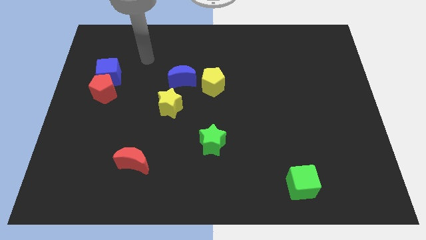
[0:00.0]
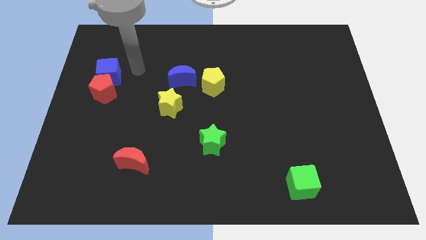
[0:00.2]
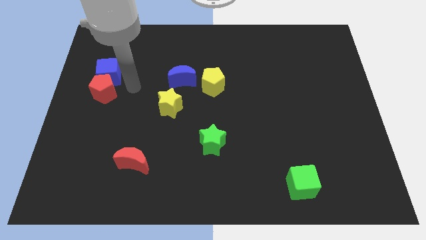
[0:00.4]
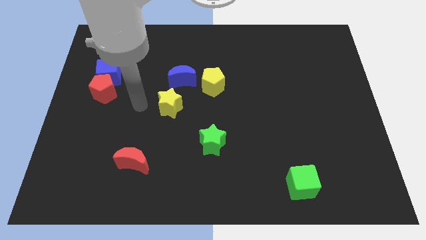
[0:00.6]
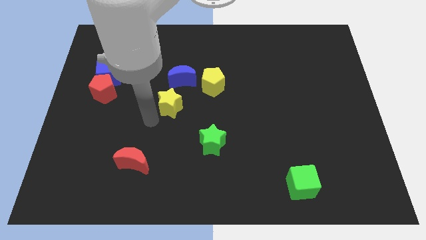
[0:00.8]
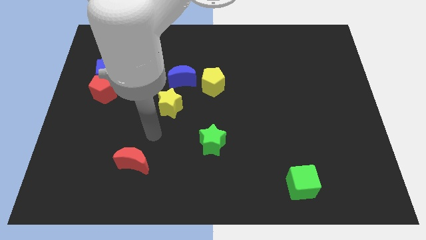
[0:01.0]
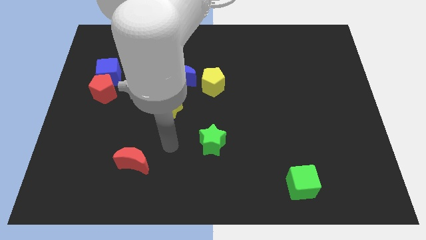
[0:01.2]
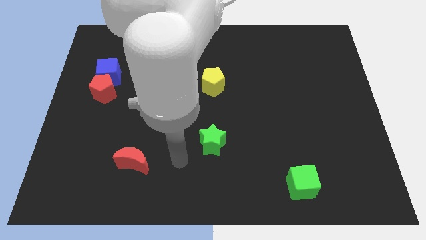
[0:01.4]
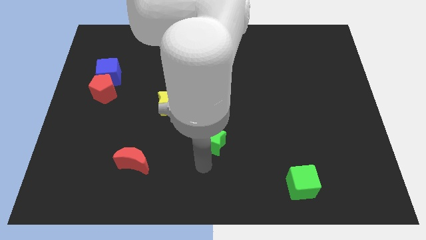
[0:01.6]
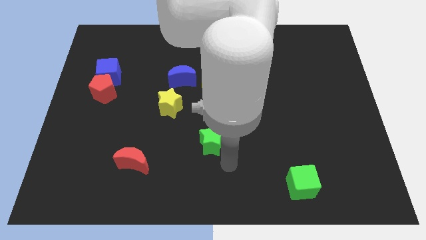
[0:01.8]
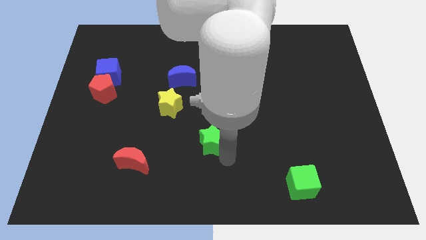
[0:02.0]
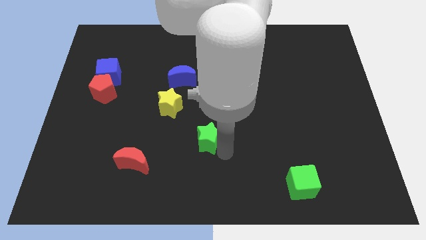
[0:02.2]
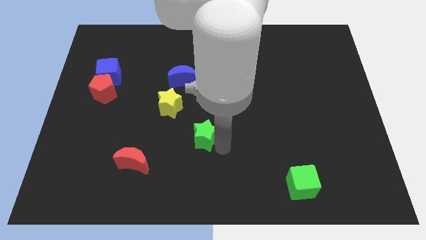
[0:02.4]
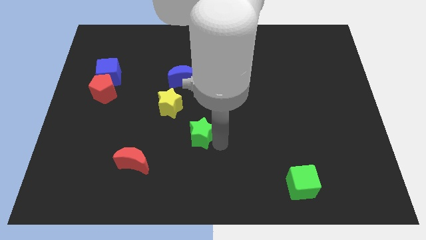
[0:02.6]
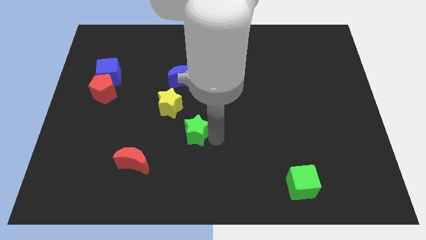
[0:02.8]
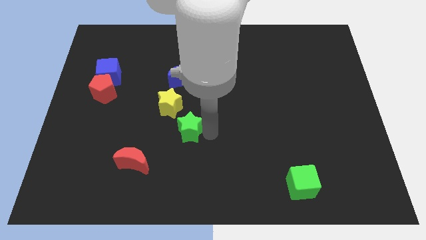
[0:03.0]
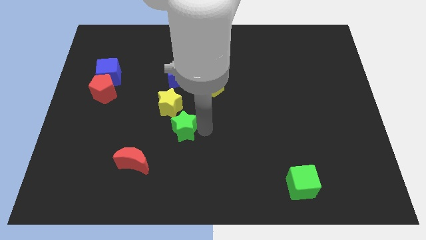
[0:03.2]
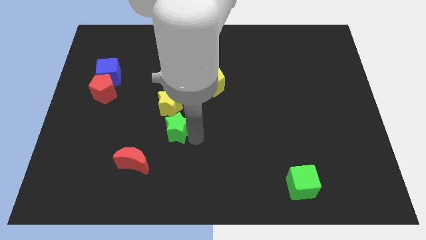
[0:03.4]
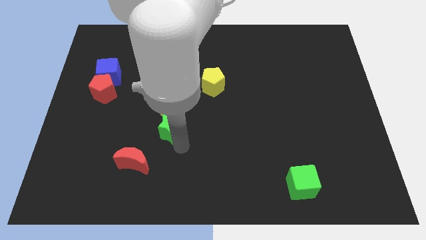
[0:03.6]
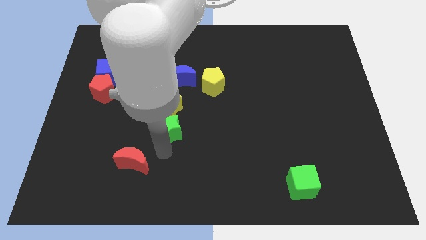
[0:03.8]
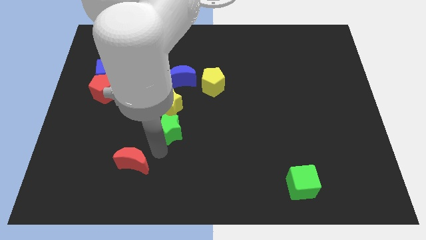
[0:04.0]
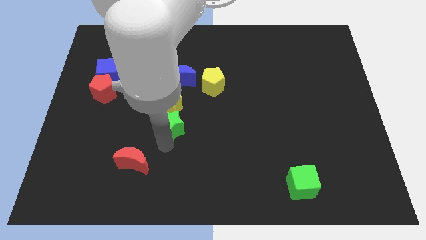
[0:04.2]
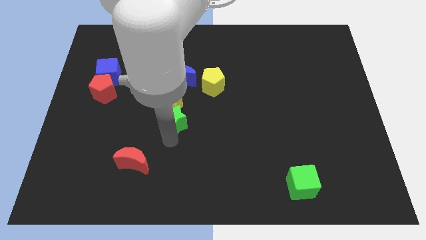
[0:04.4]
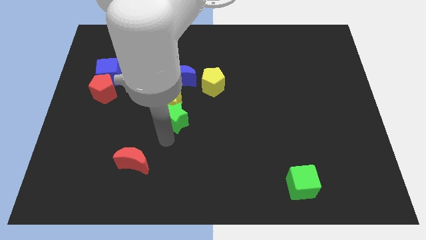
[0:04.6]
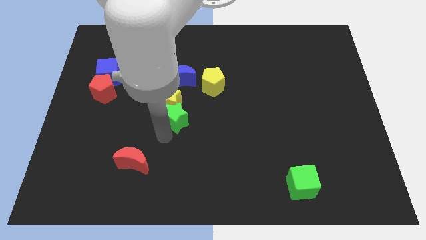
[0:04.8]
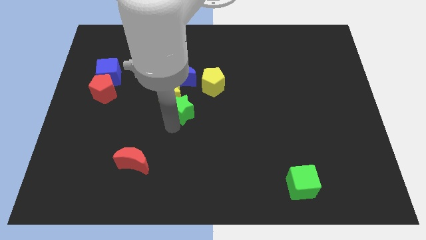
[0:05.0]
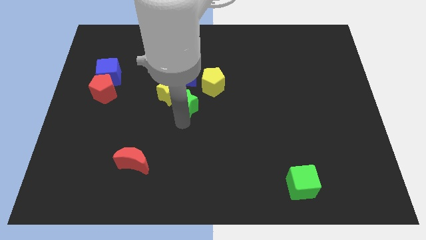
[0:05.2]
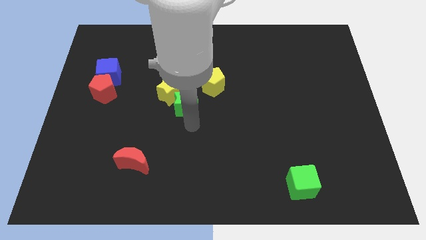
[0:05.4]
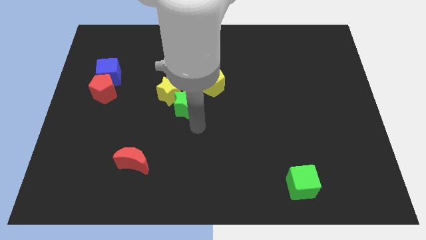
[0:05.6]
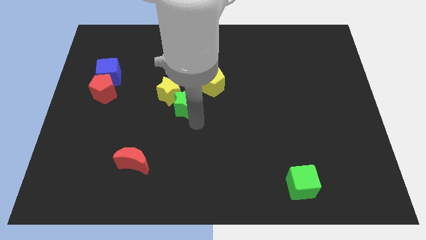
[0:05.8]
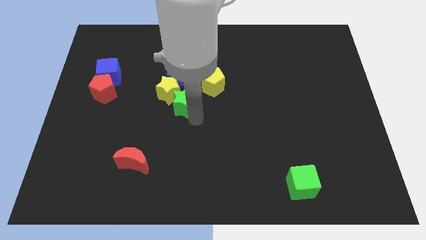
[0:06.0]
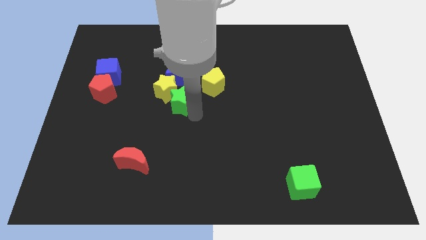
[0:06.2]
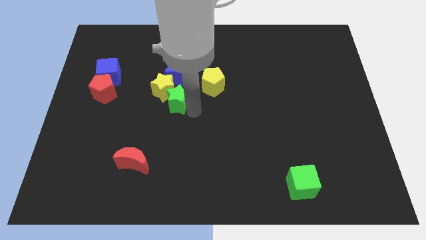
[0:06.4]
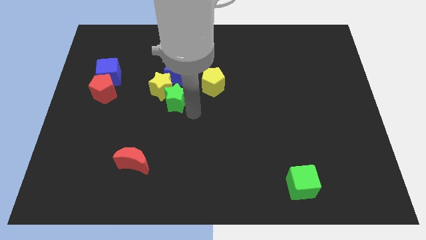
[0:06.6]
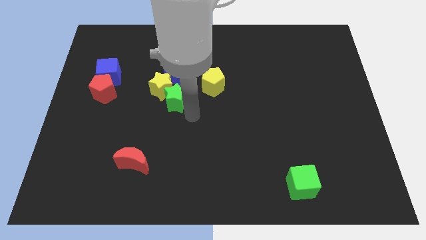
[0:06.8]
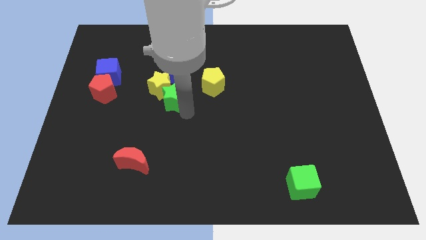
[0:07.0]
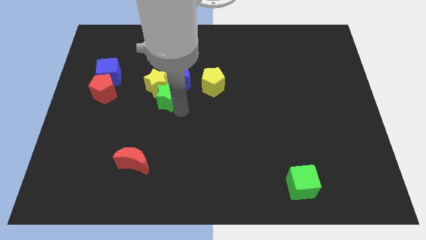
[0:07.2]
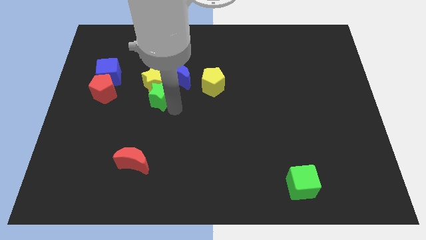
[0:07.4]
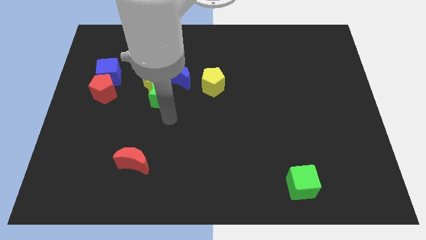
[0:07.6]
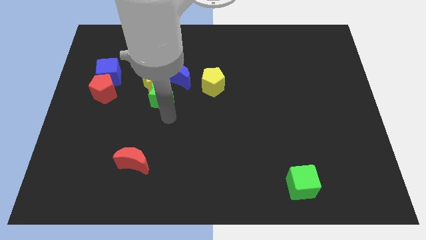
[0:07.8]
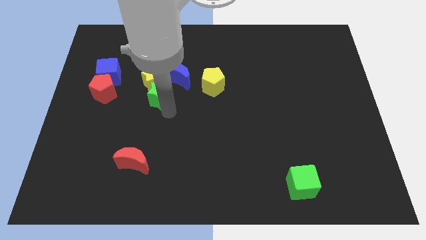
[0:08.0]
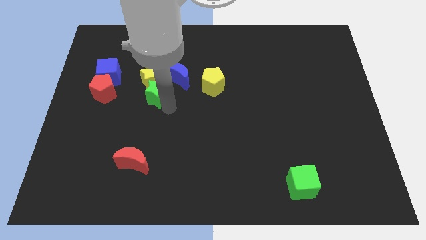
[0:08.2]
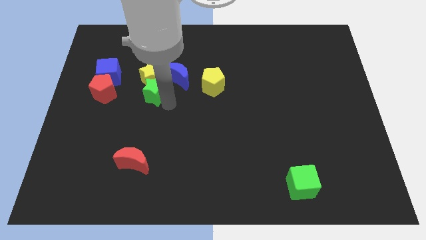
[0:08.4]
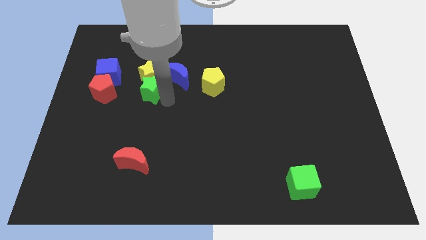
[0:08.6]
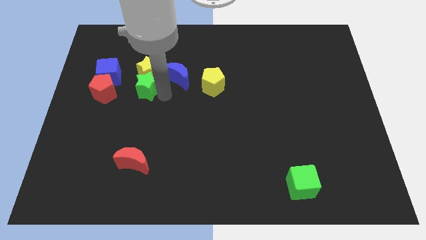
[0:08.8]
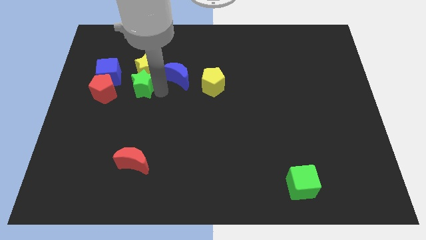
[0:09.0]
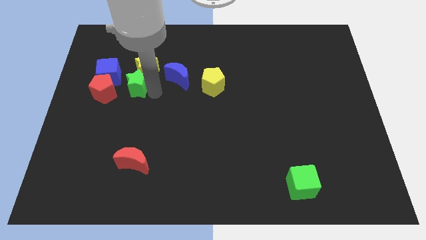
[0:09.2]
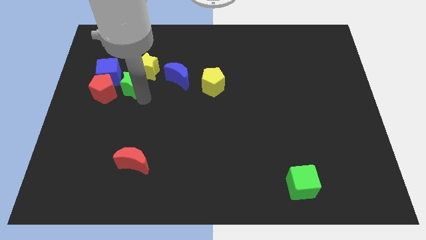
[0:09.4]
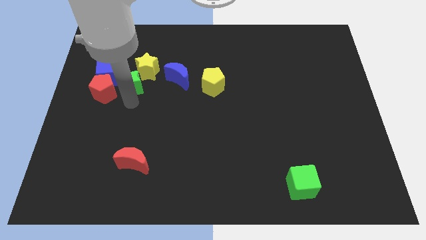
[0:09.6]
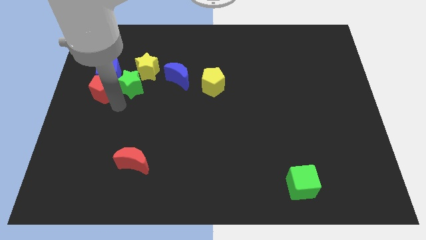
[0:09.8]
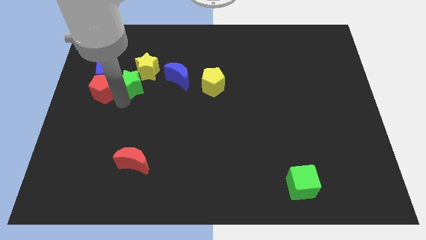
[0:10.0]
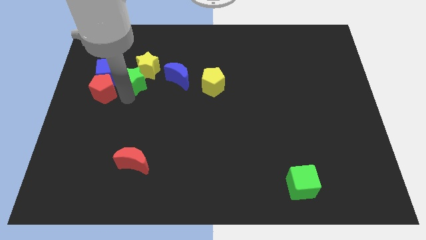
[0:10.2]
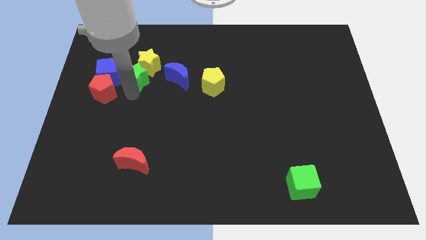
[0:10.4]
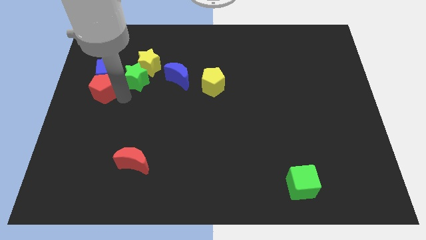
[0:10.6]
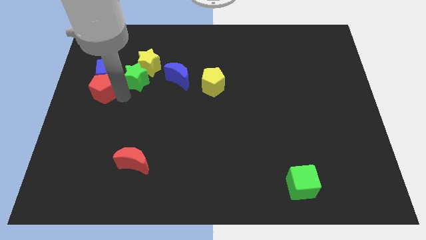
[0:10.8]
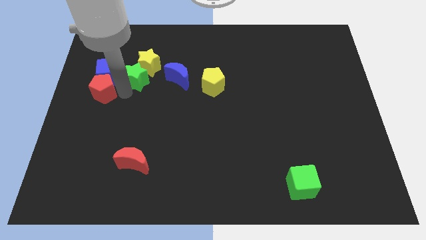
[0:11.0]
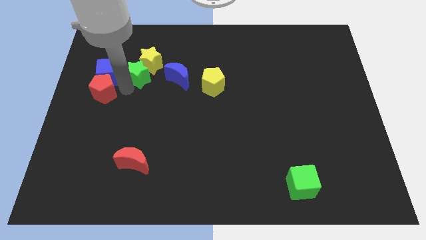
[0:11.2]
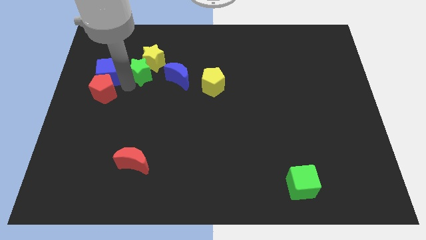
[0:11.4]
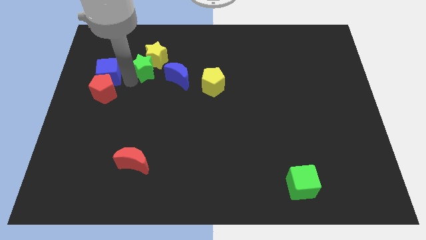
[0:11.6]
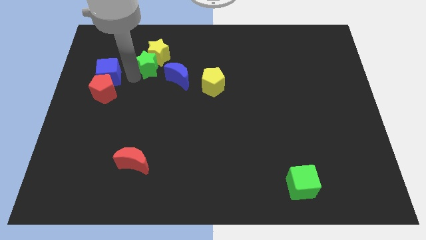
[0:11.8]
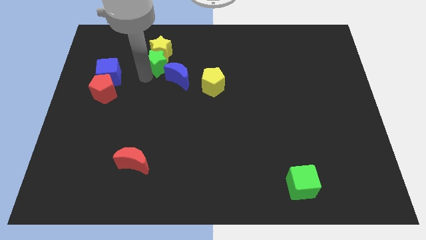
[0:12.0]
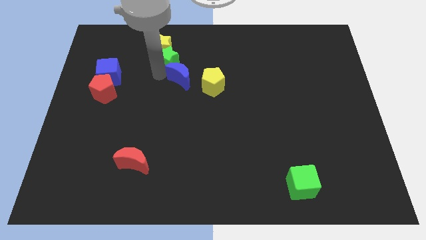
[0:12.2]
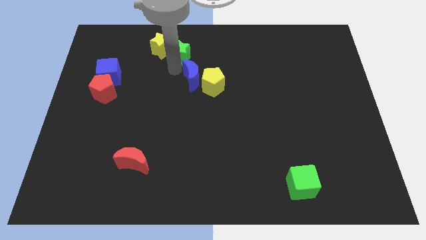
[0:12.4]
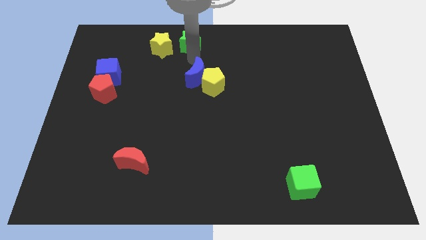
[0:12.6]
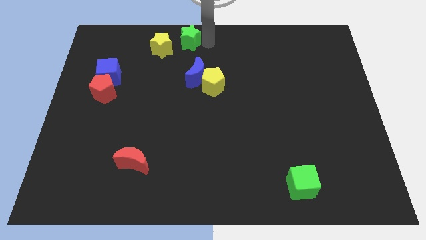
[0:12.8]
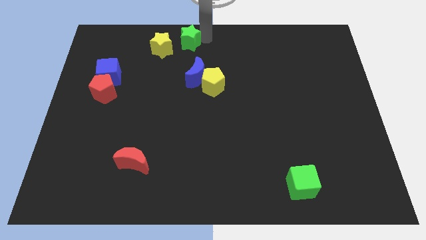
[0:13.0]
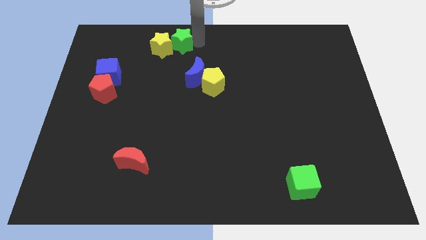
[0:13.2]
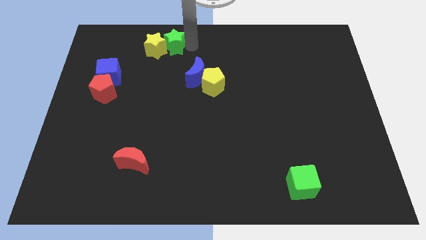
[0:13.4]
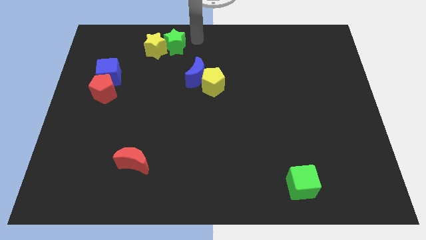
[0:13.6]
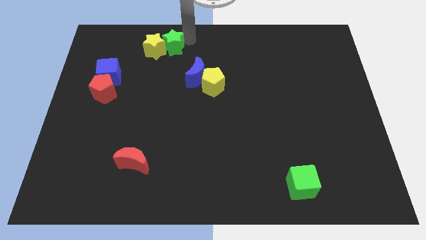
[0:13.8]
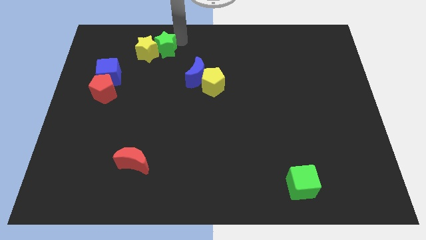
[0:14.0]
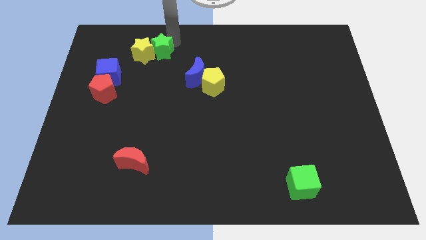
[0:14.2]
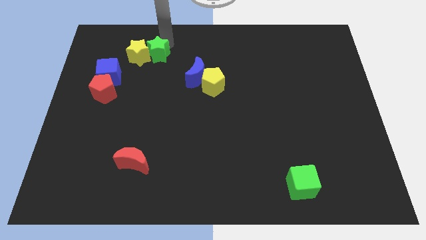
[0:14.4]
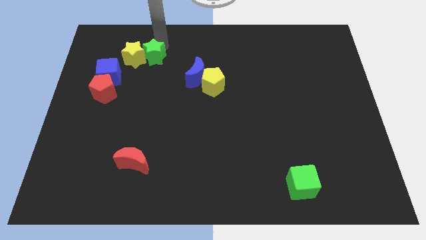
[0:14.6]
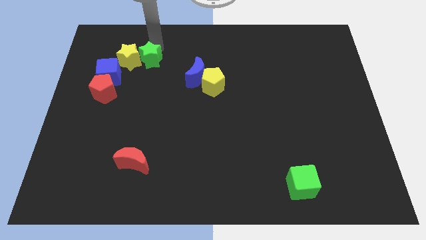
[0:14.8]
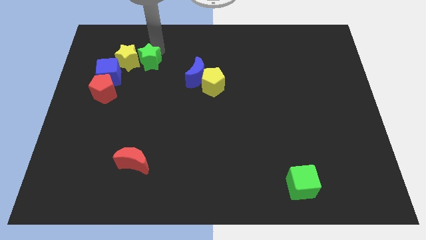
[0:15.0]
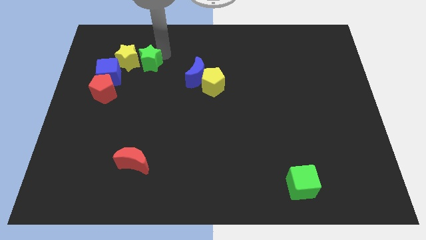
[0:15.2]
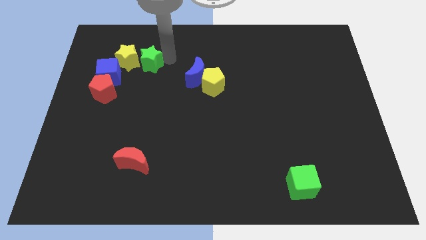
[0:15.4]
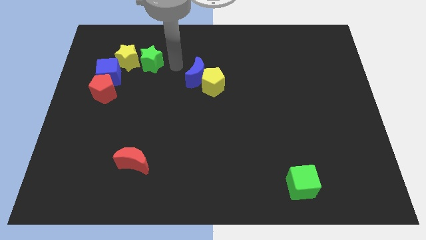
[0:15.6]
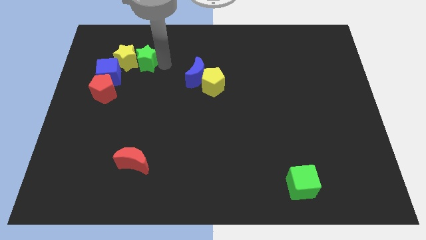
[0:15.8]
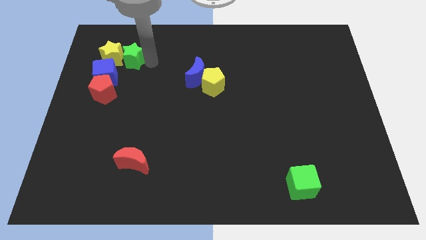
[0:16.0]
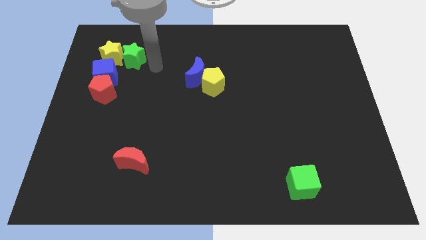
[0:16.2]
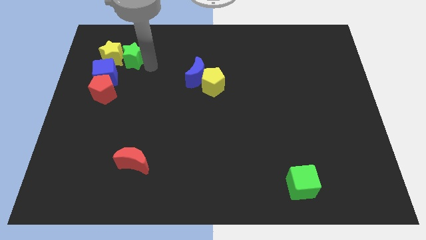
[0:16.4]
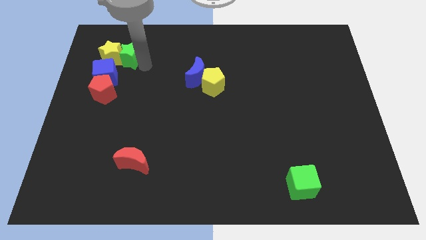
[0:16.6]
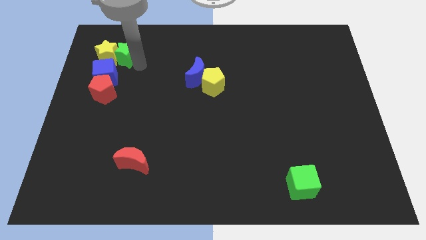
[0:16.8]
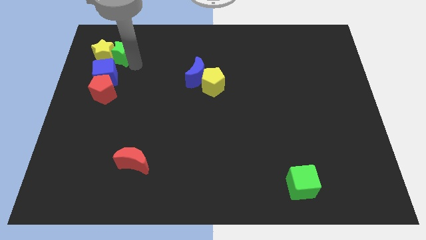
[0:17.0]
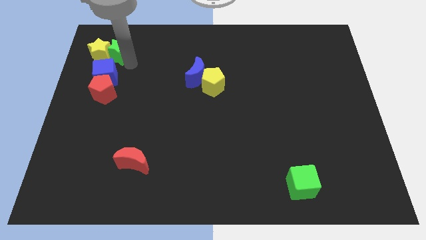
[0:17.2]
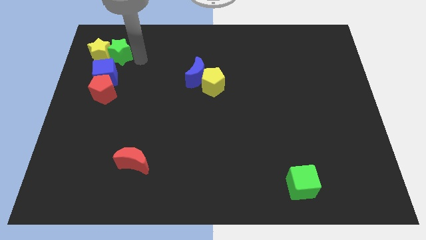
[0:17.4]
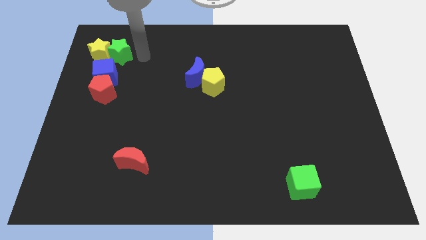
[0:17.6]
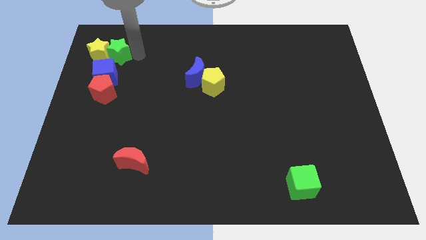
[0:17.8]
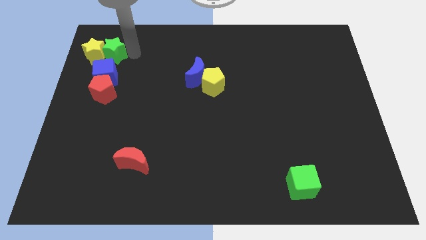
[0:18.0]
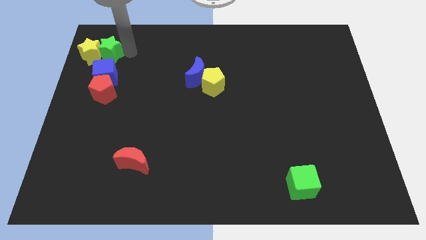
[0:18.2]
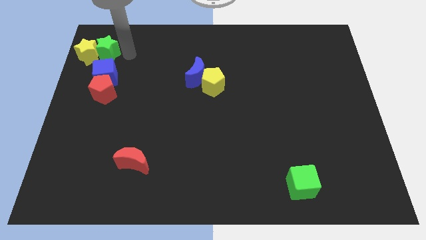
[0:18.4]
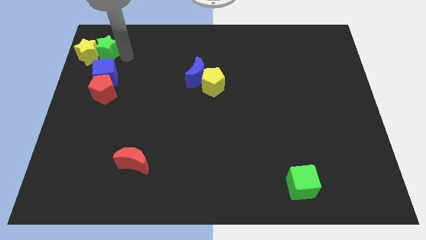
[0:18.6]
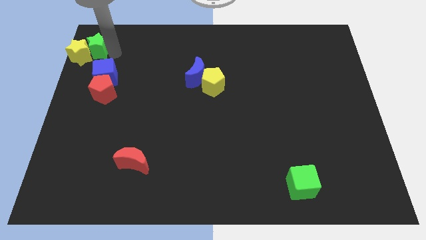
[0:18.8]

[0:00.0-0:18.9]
put the green star to the top left
